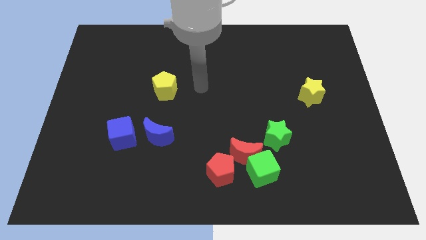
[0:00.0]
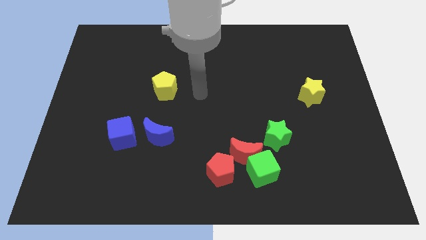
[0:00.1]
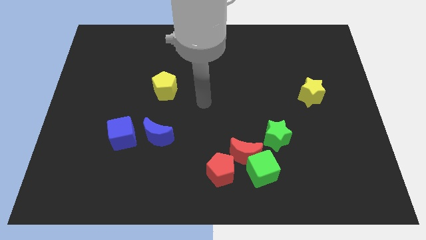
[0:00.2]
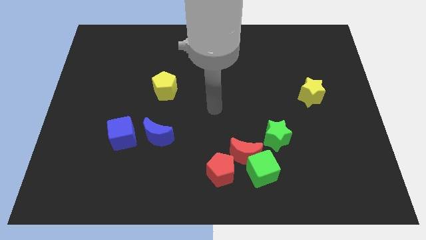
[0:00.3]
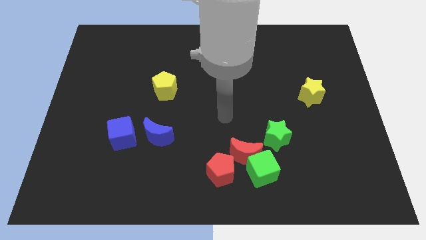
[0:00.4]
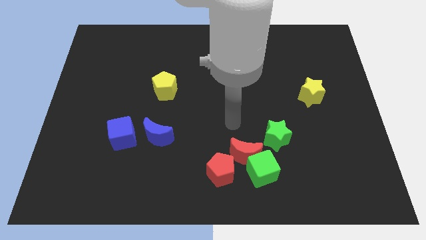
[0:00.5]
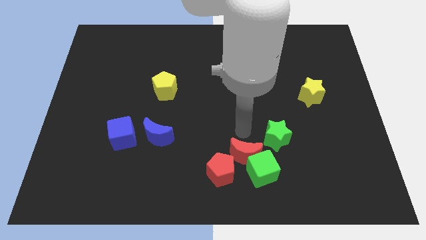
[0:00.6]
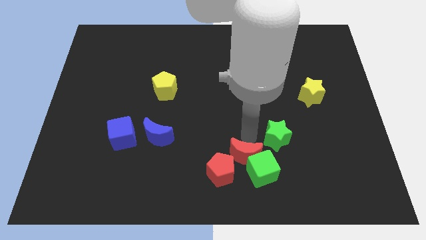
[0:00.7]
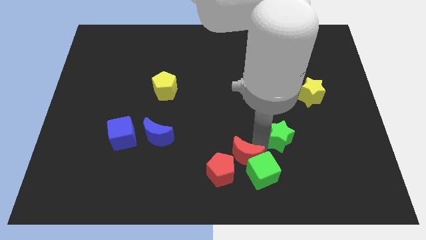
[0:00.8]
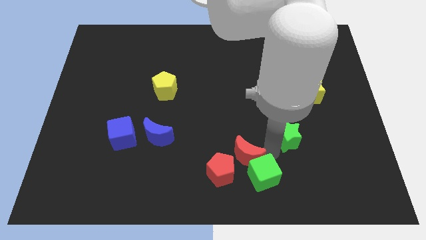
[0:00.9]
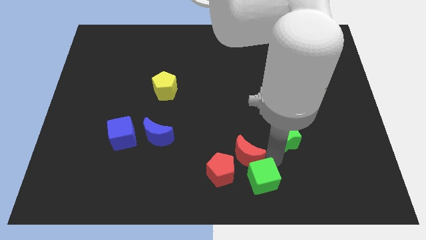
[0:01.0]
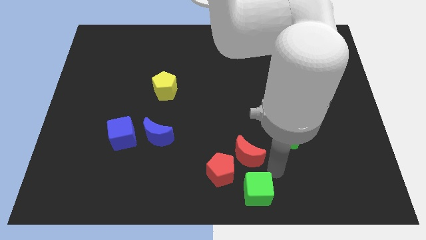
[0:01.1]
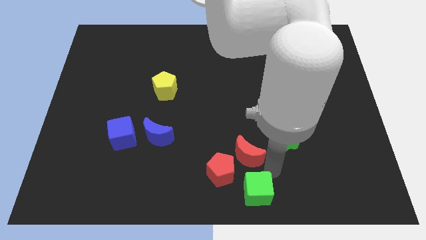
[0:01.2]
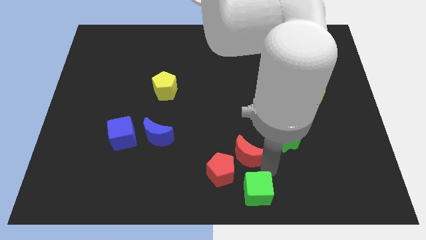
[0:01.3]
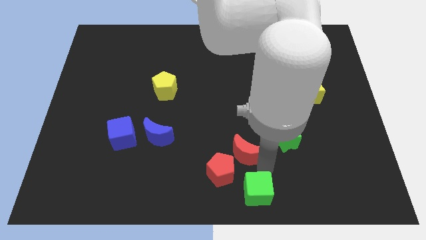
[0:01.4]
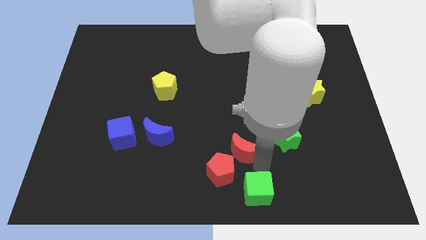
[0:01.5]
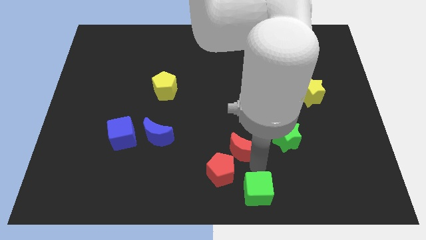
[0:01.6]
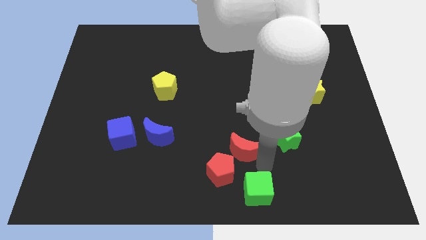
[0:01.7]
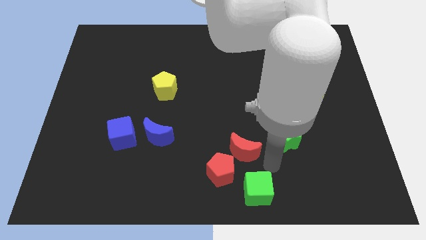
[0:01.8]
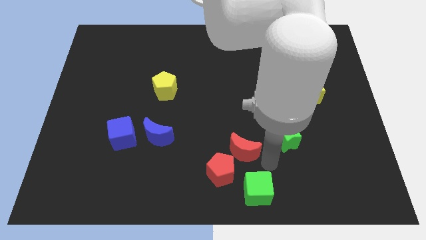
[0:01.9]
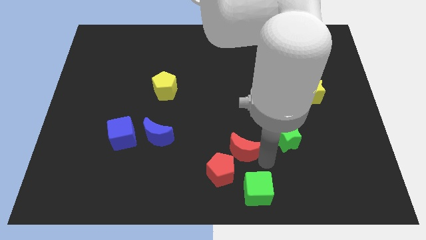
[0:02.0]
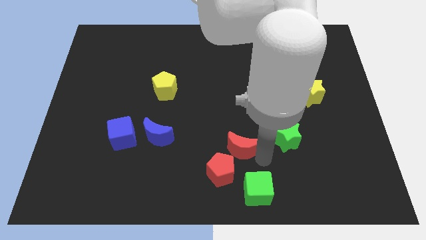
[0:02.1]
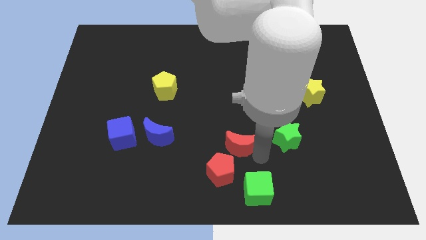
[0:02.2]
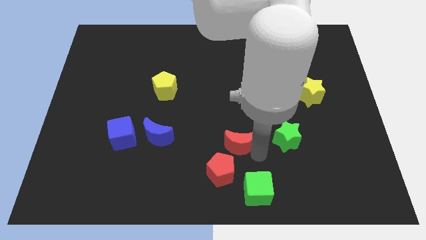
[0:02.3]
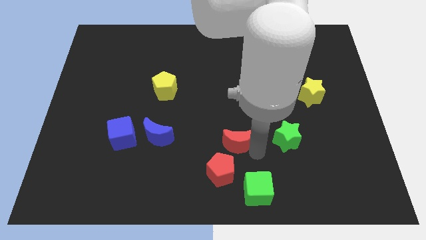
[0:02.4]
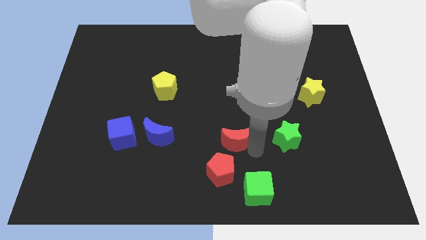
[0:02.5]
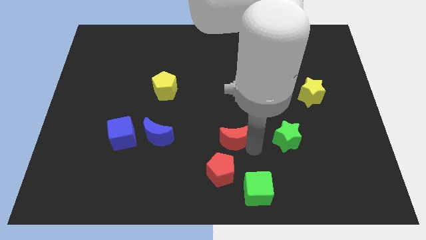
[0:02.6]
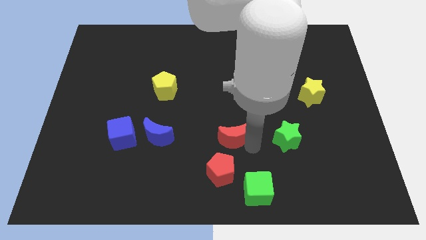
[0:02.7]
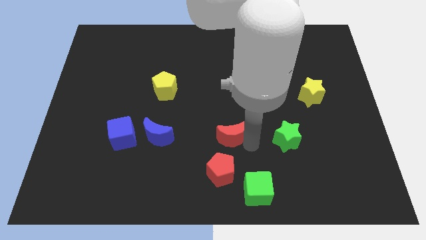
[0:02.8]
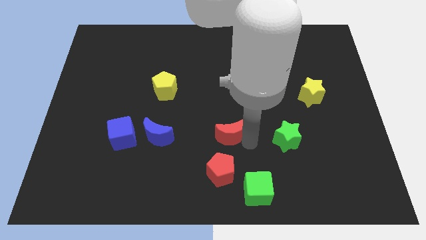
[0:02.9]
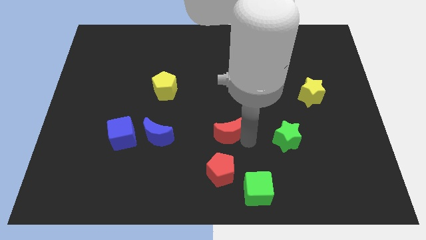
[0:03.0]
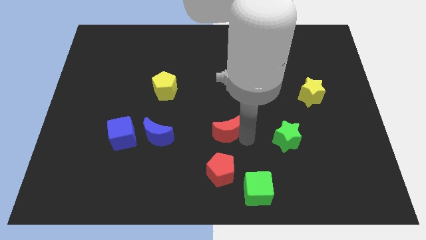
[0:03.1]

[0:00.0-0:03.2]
separate the red moon from the group

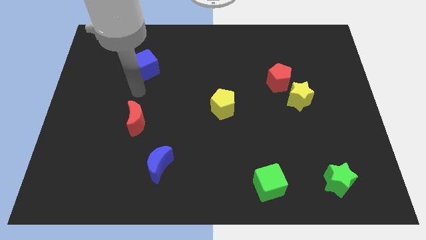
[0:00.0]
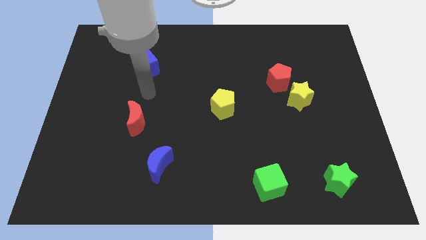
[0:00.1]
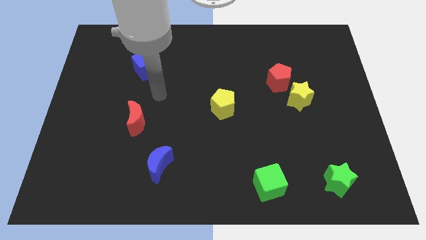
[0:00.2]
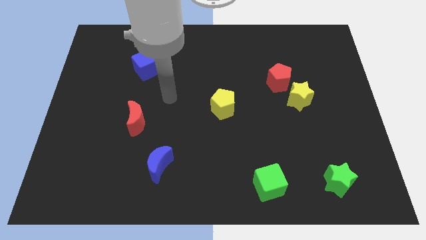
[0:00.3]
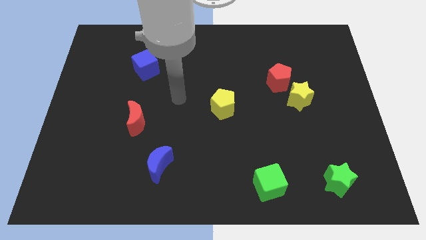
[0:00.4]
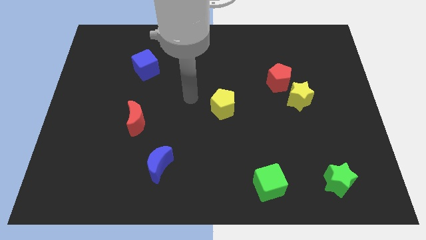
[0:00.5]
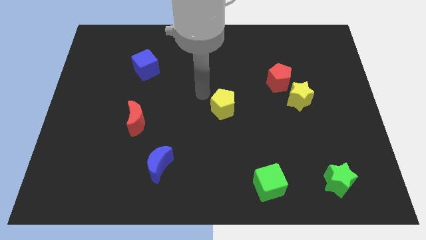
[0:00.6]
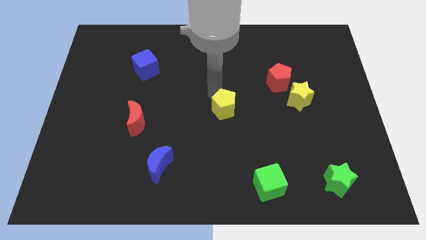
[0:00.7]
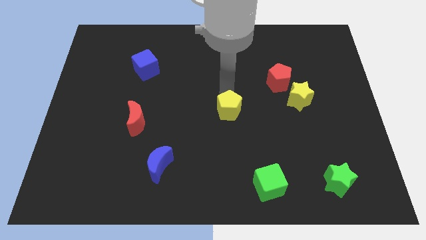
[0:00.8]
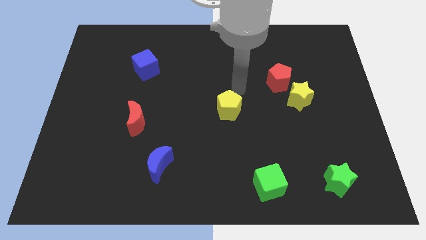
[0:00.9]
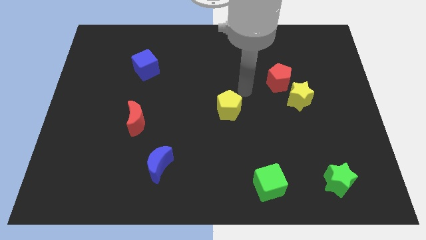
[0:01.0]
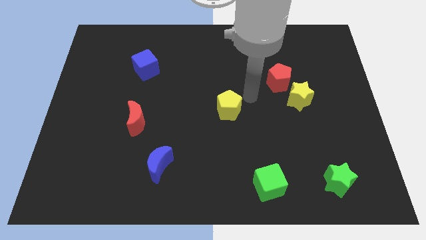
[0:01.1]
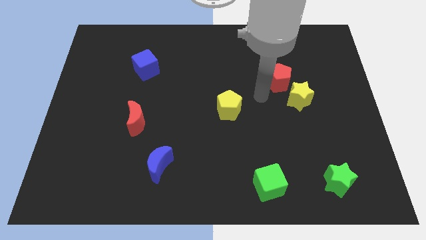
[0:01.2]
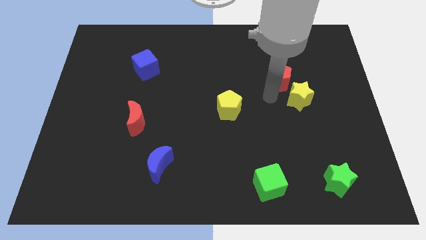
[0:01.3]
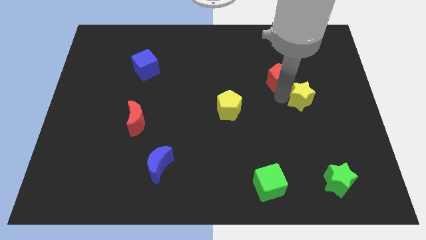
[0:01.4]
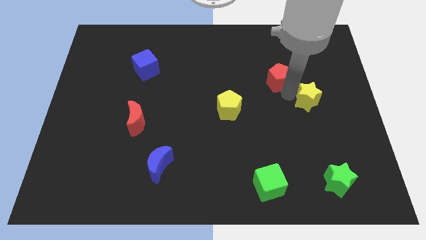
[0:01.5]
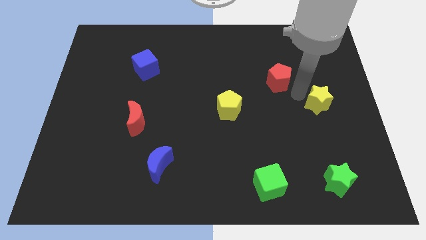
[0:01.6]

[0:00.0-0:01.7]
pull the red pentagon apart from the yellow star

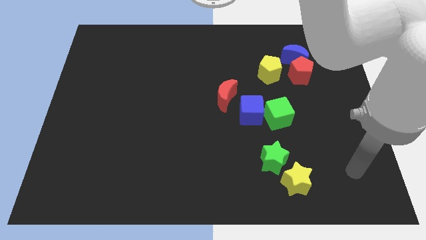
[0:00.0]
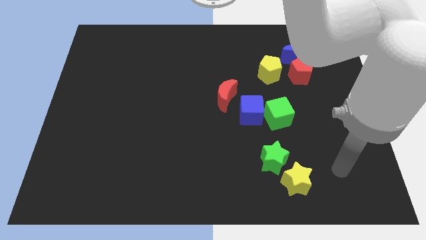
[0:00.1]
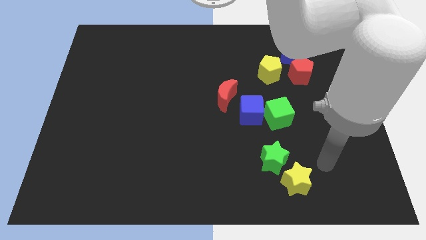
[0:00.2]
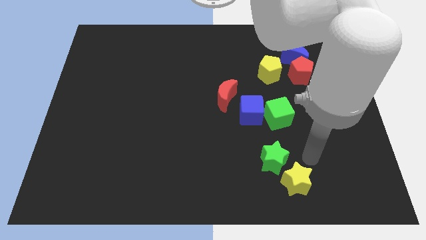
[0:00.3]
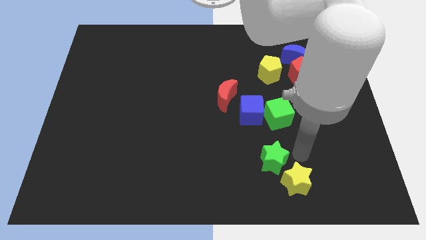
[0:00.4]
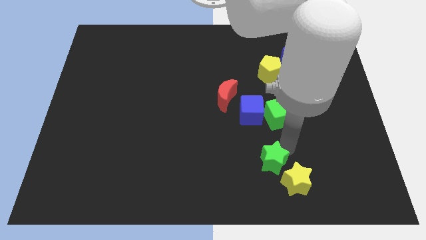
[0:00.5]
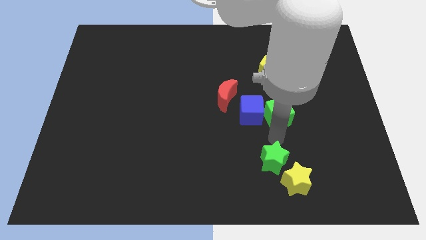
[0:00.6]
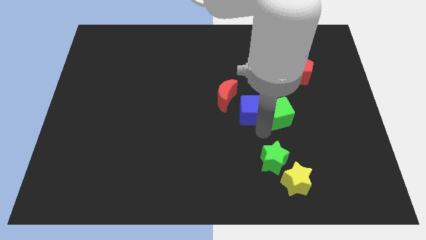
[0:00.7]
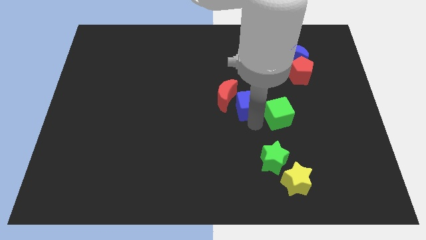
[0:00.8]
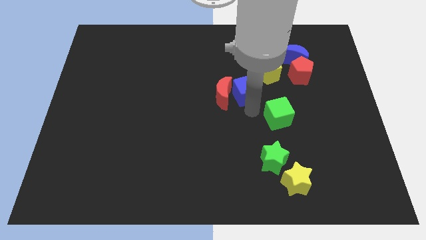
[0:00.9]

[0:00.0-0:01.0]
separate the green cube from the blue cube

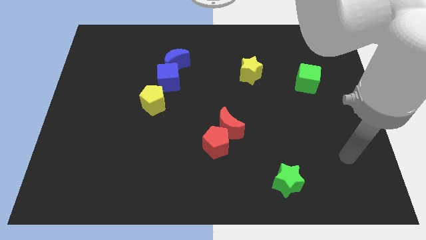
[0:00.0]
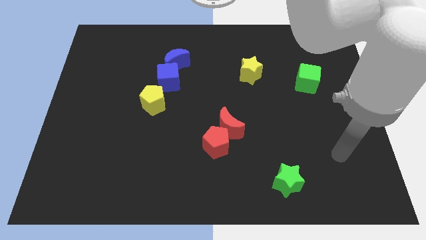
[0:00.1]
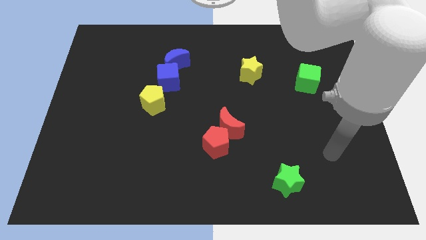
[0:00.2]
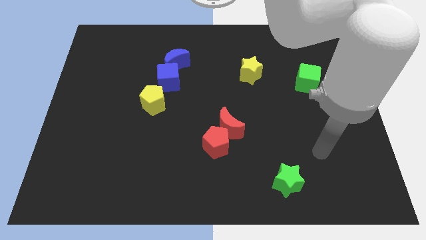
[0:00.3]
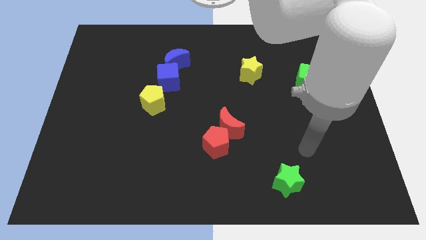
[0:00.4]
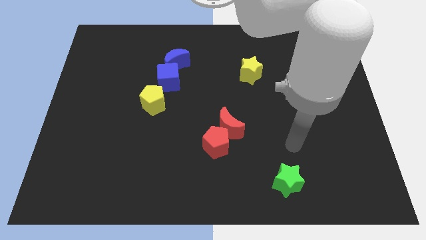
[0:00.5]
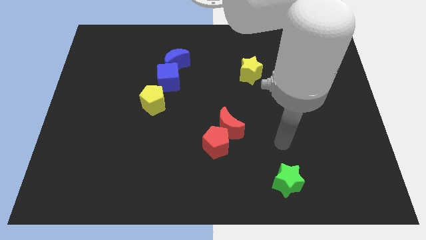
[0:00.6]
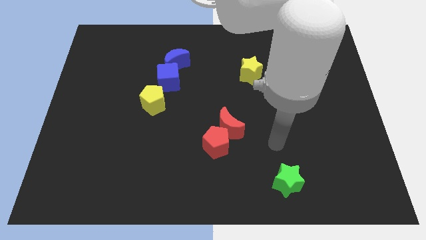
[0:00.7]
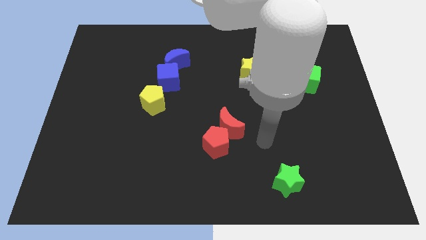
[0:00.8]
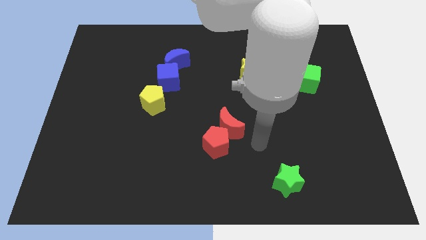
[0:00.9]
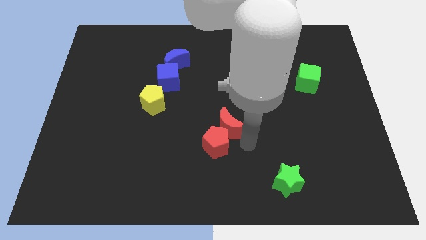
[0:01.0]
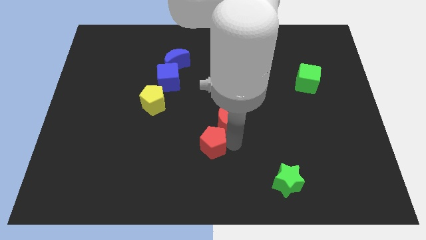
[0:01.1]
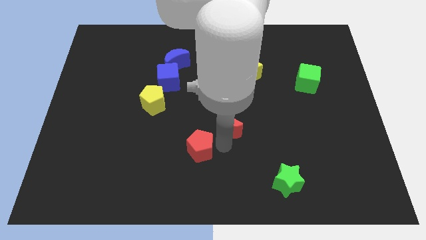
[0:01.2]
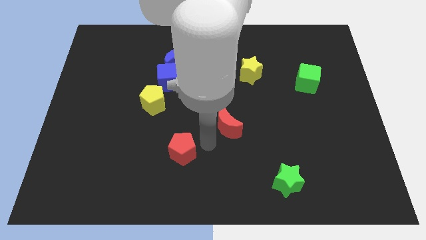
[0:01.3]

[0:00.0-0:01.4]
separate the red moon from the red pentagon

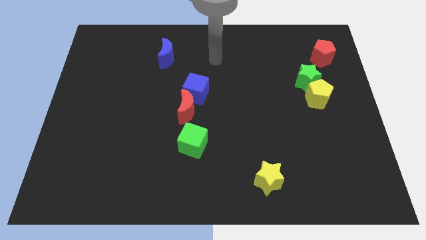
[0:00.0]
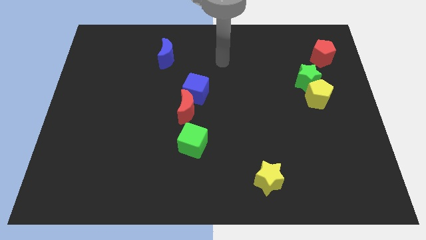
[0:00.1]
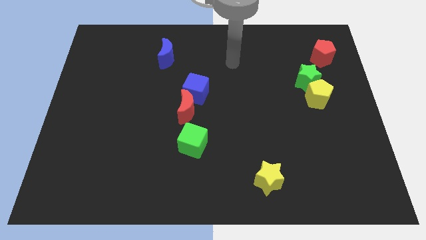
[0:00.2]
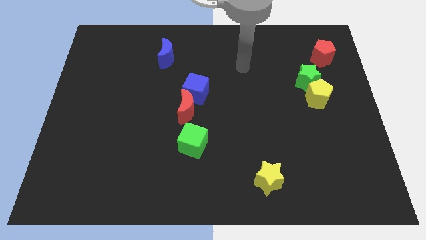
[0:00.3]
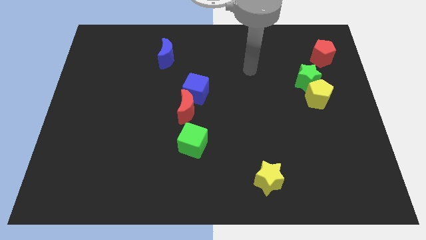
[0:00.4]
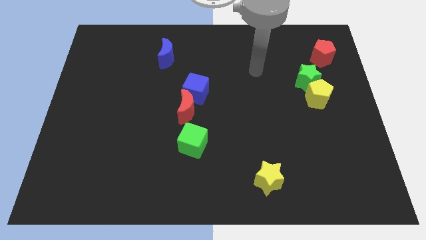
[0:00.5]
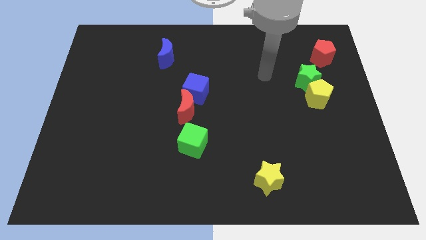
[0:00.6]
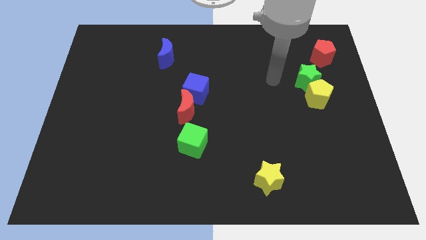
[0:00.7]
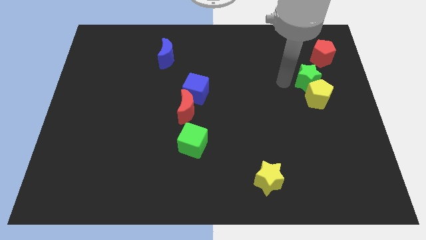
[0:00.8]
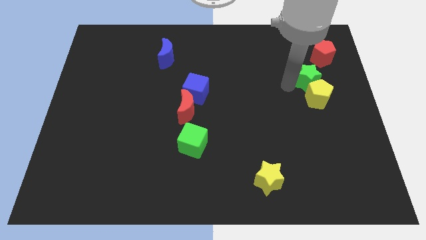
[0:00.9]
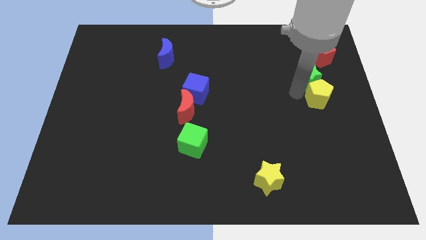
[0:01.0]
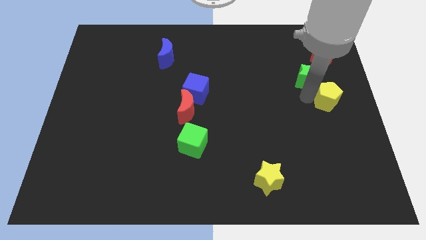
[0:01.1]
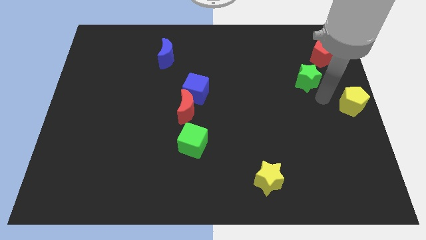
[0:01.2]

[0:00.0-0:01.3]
move the green star away from the yellow pentagon

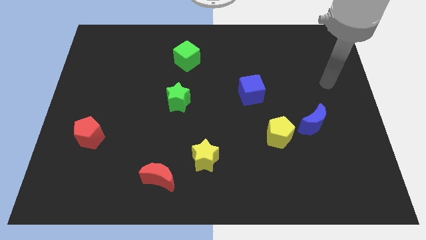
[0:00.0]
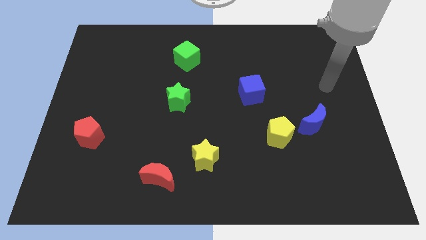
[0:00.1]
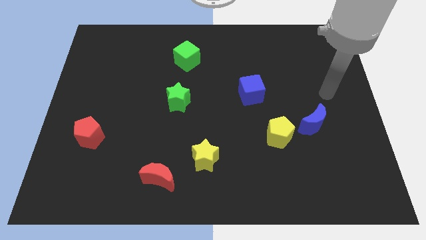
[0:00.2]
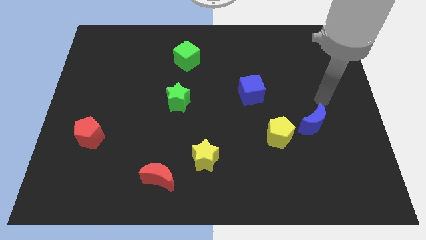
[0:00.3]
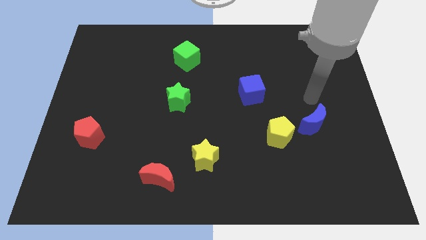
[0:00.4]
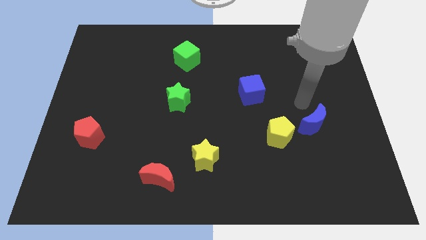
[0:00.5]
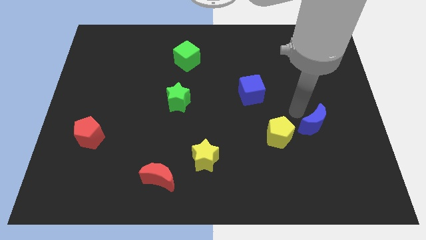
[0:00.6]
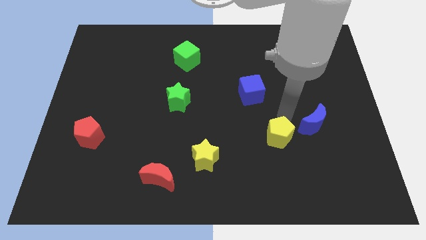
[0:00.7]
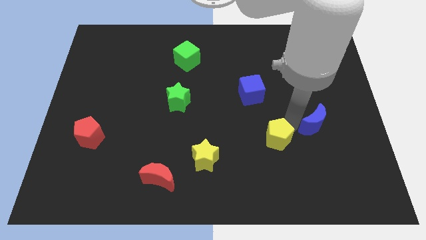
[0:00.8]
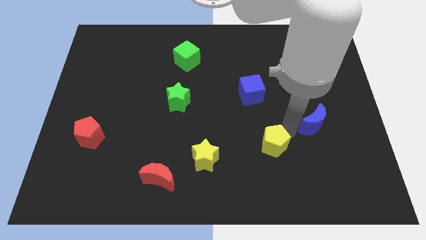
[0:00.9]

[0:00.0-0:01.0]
pull the blue moon apart from the yellow pentagon
